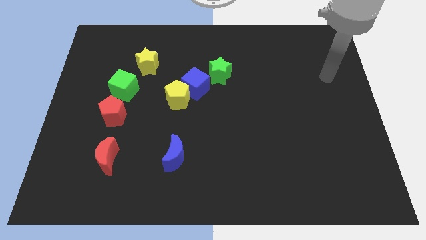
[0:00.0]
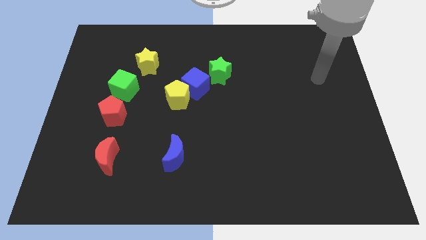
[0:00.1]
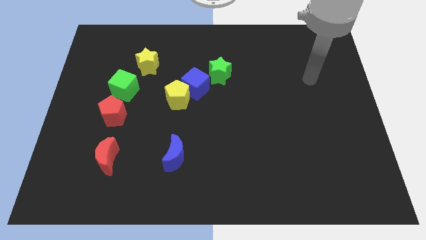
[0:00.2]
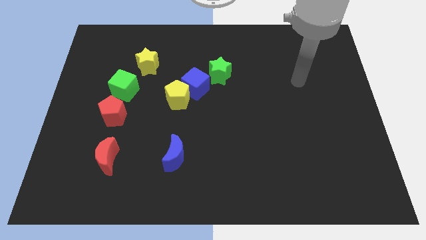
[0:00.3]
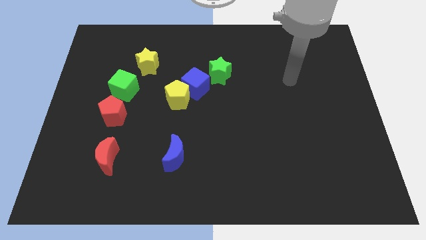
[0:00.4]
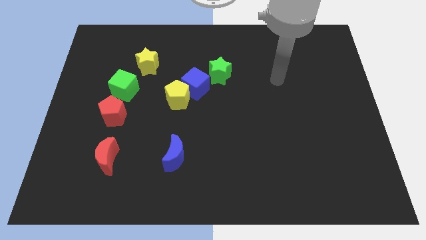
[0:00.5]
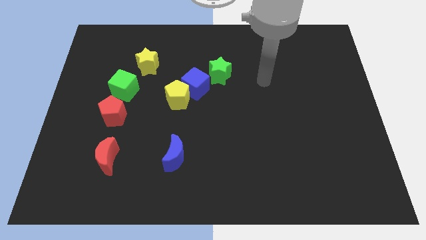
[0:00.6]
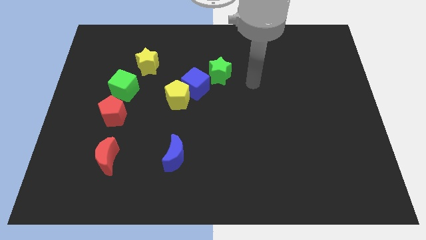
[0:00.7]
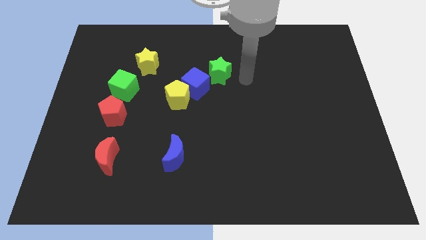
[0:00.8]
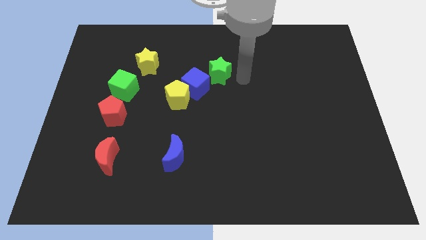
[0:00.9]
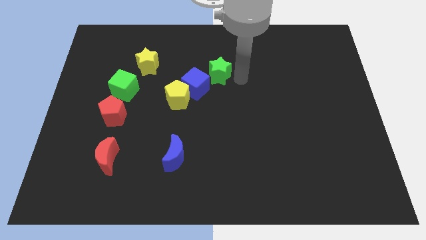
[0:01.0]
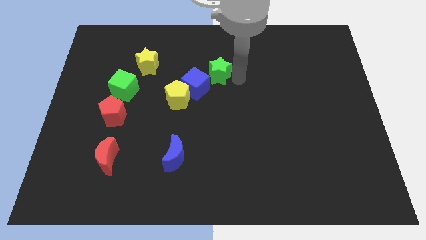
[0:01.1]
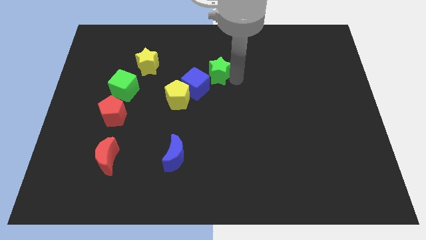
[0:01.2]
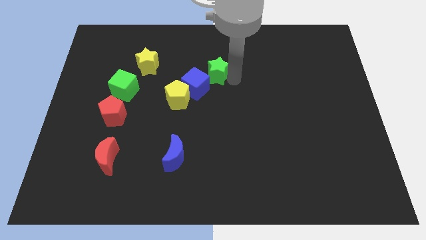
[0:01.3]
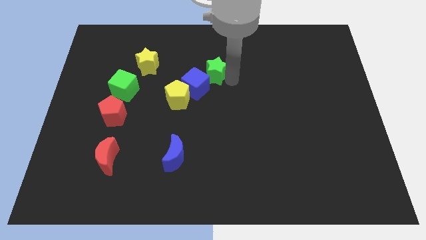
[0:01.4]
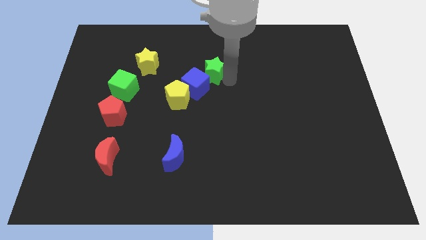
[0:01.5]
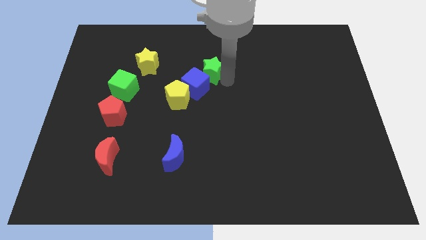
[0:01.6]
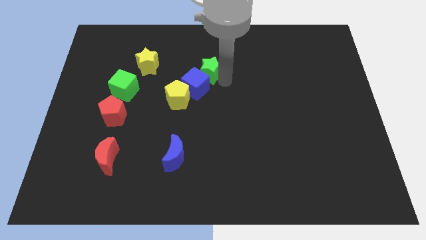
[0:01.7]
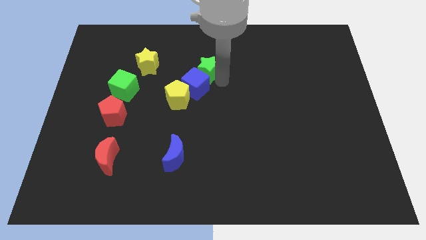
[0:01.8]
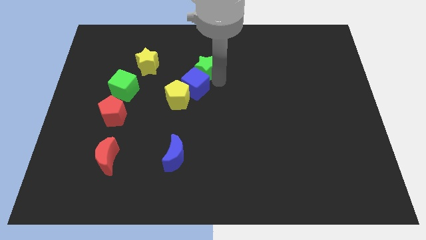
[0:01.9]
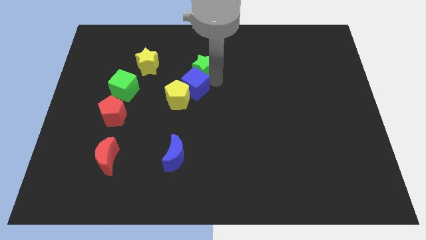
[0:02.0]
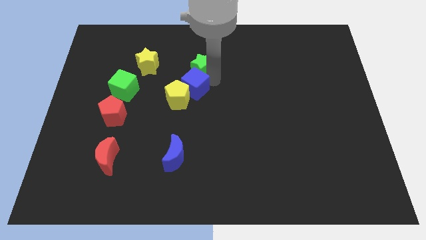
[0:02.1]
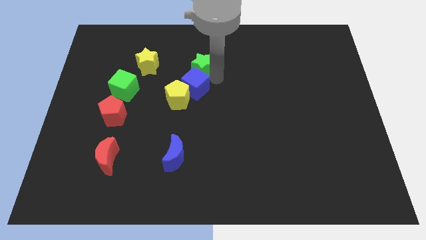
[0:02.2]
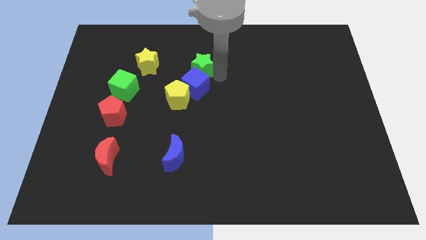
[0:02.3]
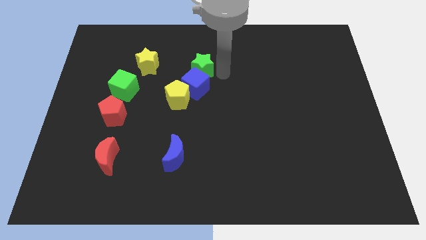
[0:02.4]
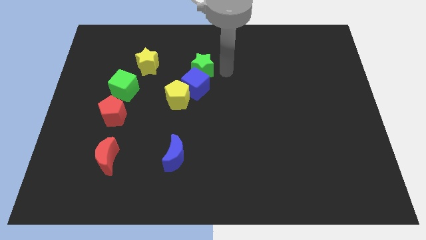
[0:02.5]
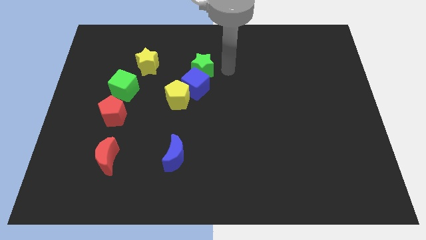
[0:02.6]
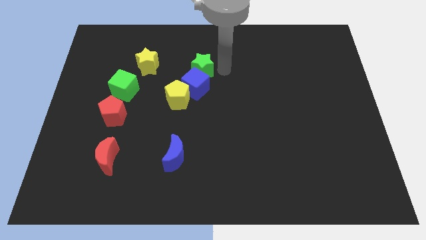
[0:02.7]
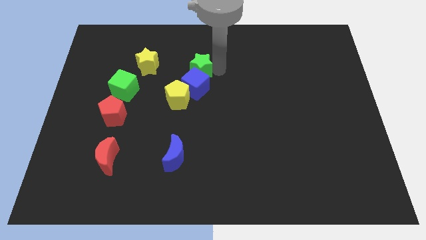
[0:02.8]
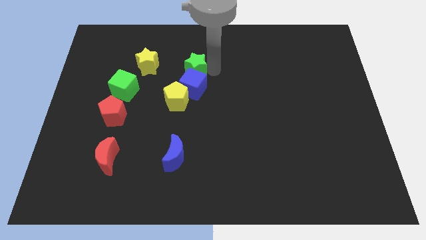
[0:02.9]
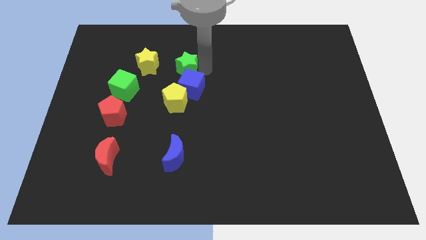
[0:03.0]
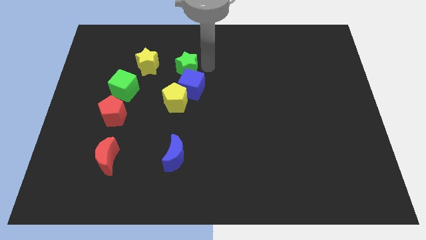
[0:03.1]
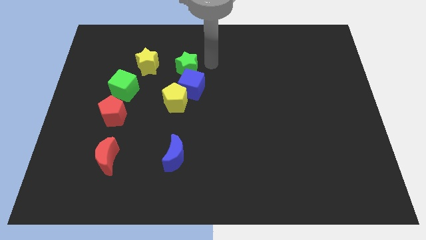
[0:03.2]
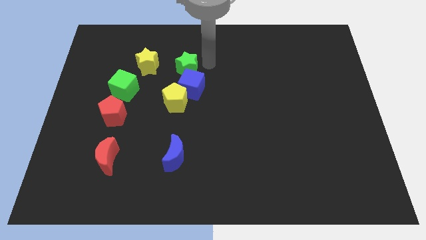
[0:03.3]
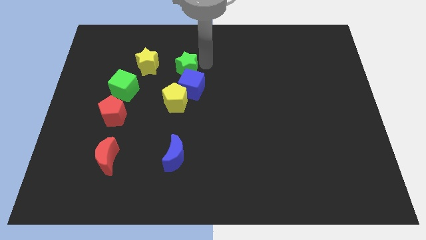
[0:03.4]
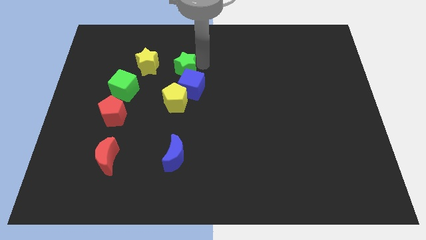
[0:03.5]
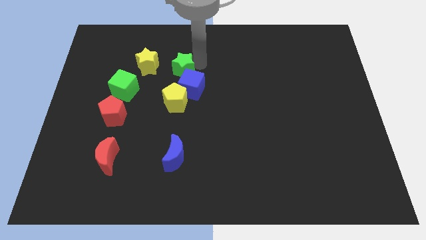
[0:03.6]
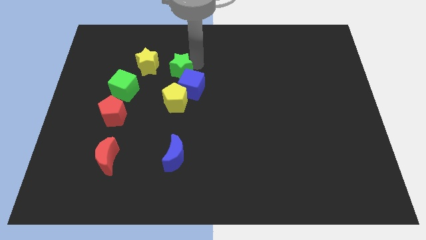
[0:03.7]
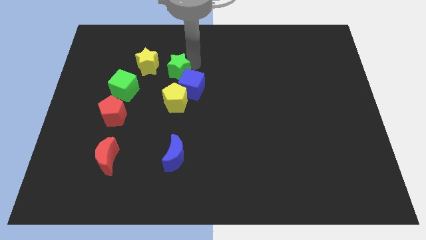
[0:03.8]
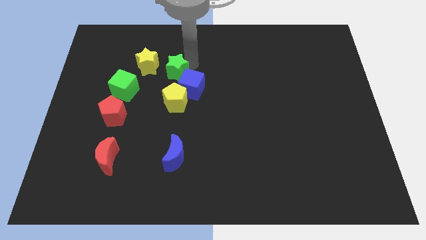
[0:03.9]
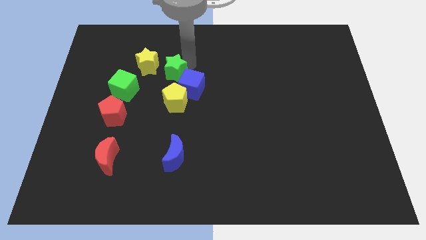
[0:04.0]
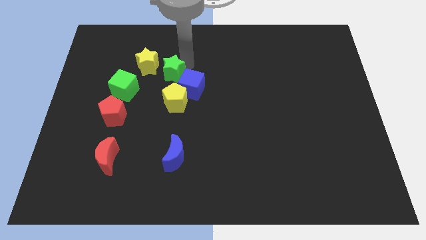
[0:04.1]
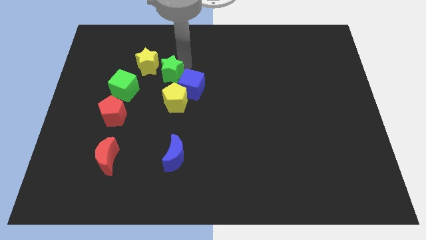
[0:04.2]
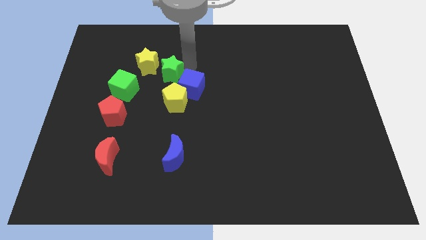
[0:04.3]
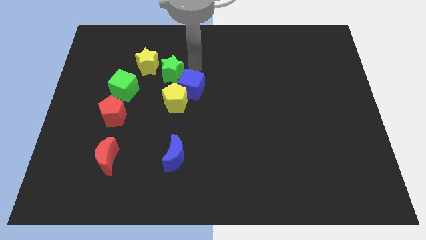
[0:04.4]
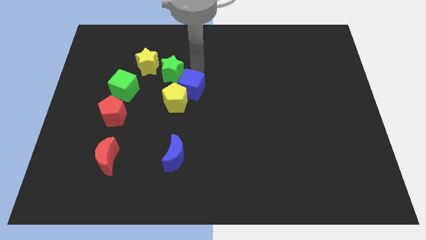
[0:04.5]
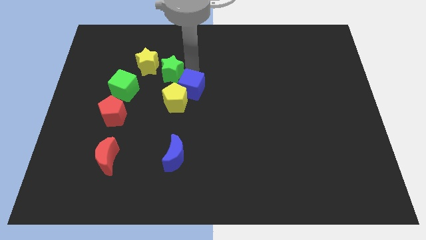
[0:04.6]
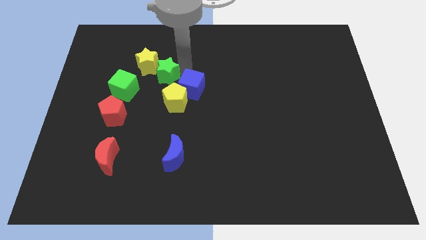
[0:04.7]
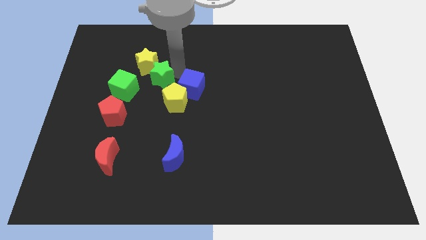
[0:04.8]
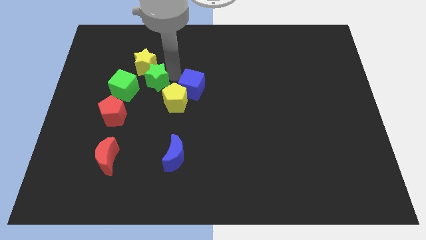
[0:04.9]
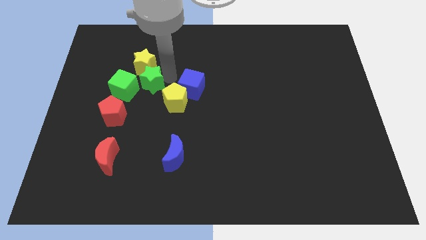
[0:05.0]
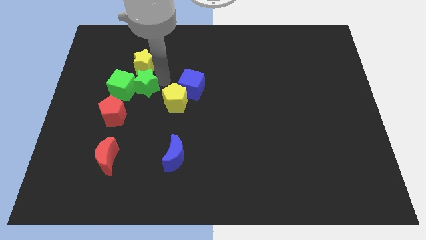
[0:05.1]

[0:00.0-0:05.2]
put the green star to the green cube

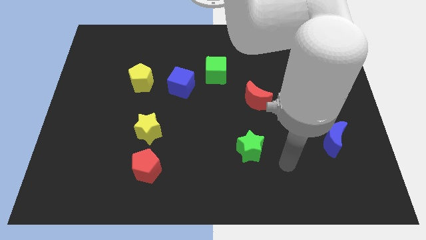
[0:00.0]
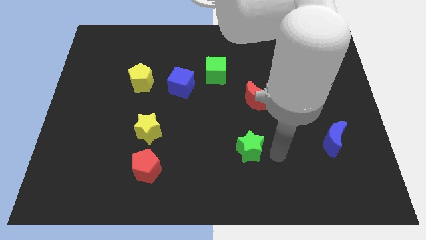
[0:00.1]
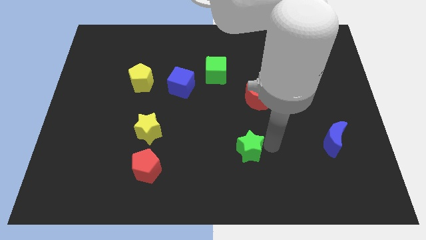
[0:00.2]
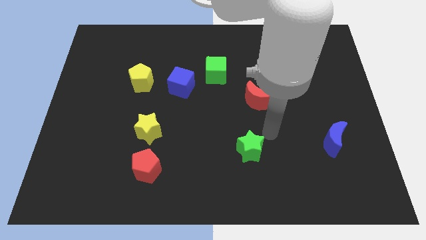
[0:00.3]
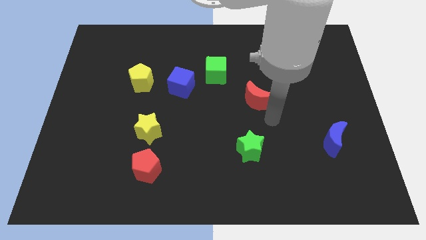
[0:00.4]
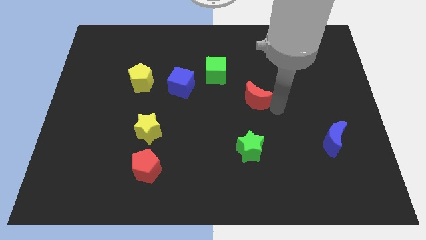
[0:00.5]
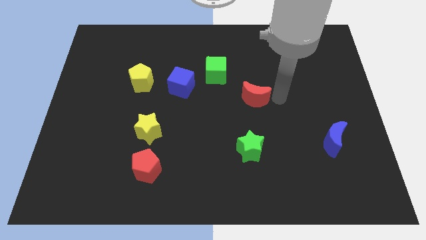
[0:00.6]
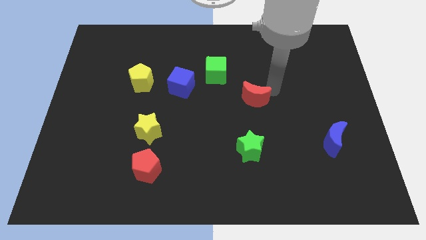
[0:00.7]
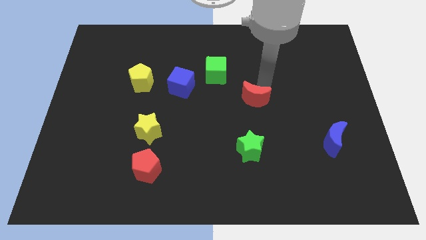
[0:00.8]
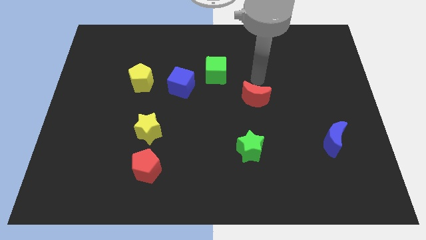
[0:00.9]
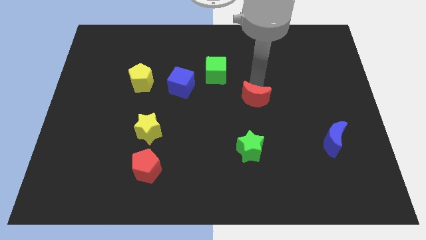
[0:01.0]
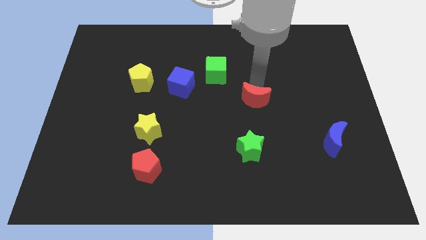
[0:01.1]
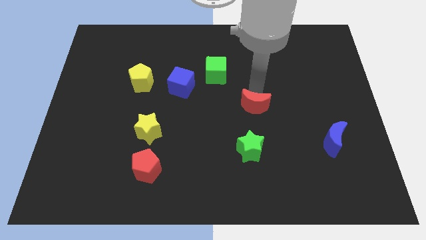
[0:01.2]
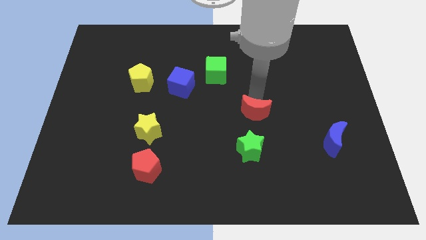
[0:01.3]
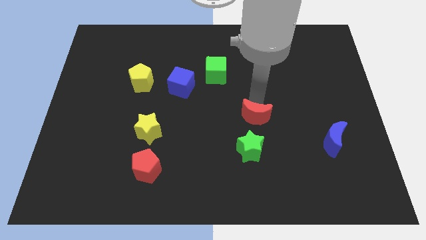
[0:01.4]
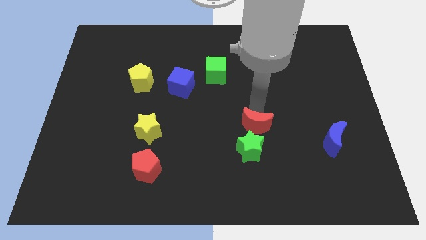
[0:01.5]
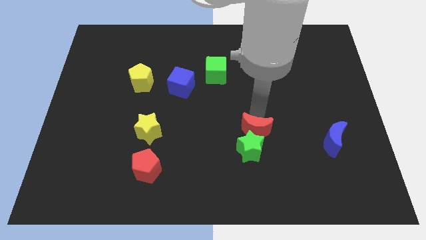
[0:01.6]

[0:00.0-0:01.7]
put the red moon next to the green star
